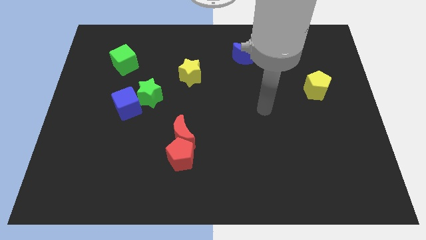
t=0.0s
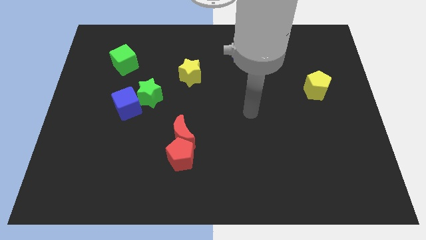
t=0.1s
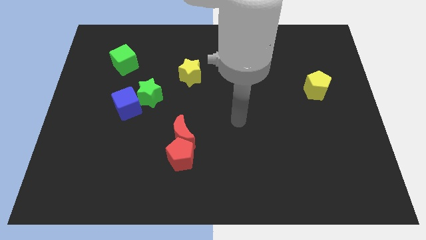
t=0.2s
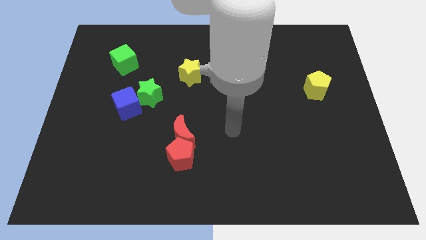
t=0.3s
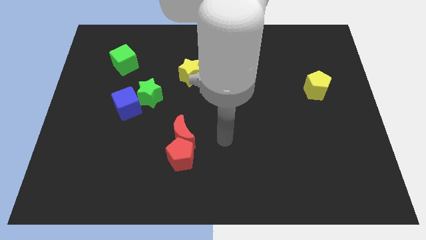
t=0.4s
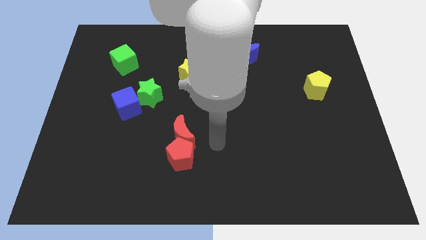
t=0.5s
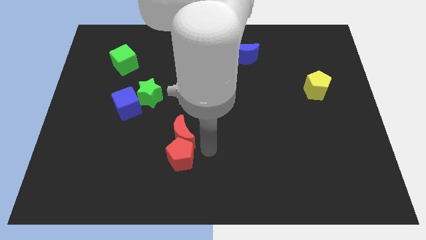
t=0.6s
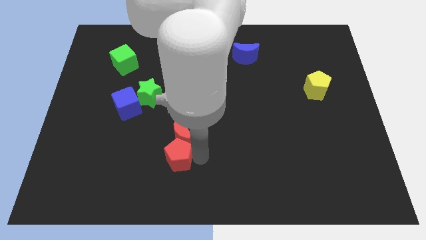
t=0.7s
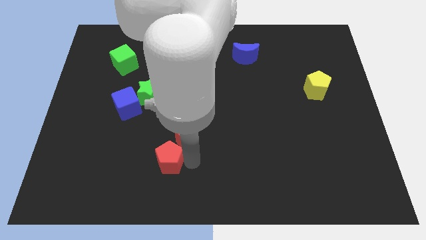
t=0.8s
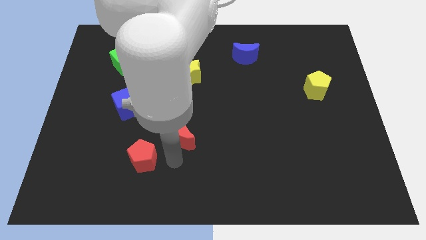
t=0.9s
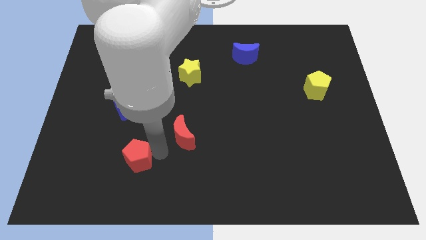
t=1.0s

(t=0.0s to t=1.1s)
separate the red moon from the red pentagon

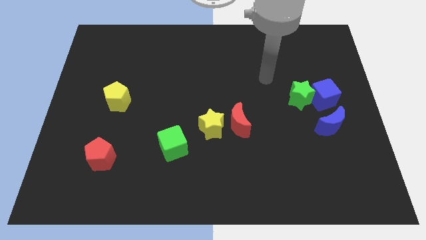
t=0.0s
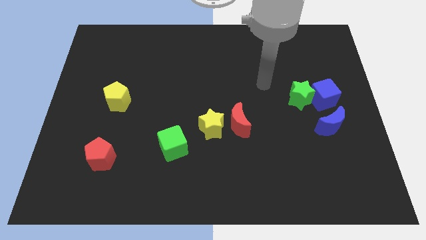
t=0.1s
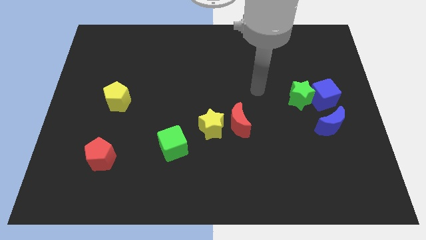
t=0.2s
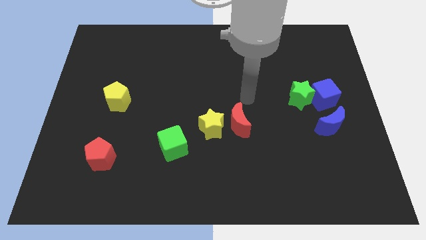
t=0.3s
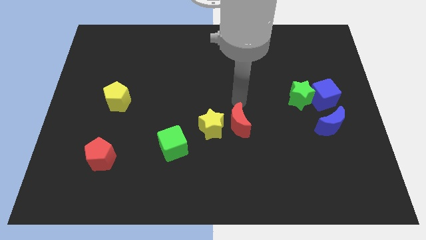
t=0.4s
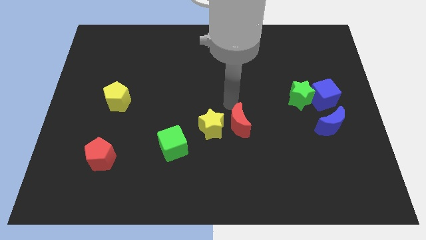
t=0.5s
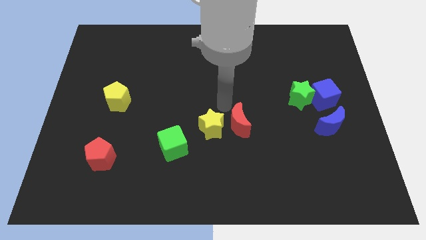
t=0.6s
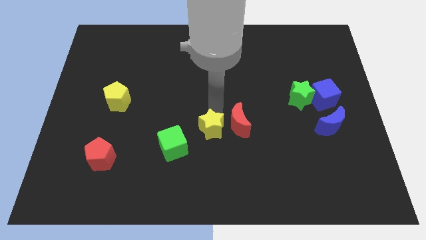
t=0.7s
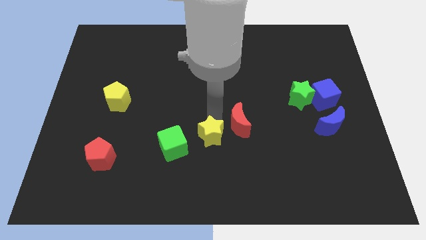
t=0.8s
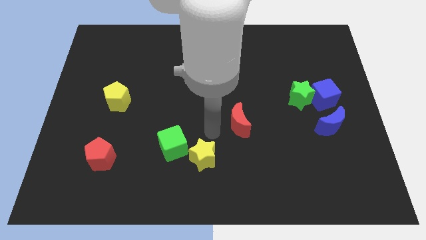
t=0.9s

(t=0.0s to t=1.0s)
pull the red moon apart from the yellow star

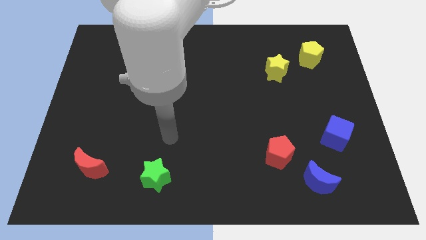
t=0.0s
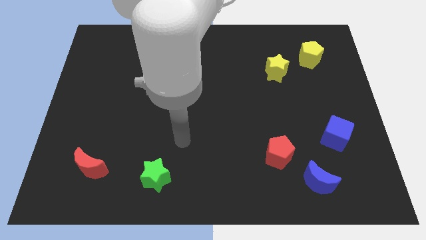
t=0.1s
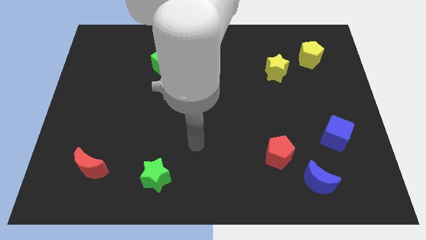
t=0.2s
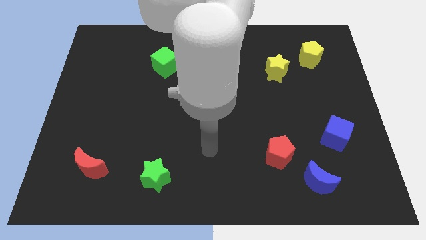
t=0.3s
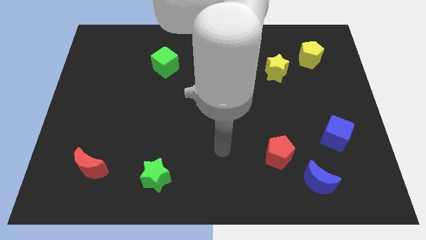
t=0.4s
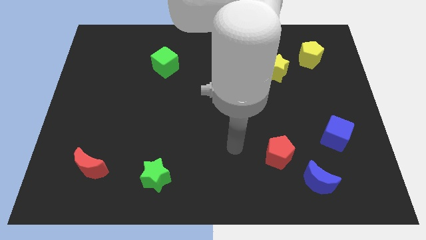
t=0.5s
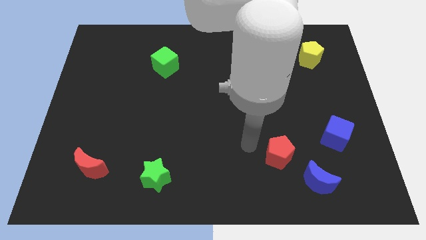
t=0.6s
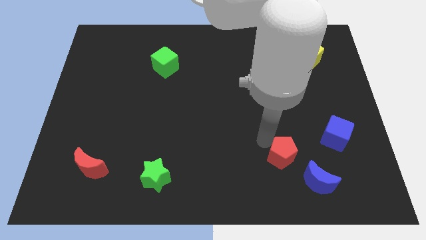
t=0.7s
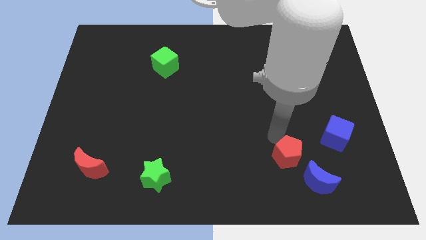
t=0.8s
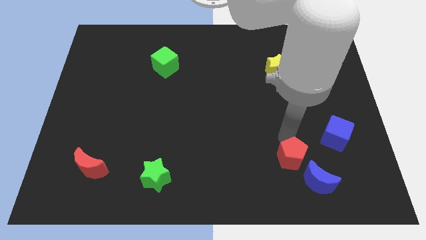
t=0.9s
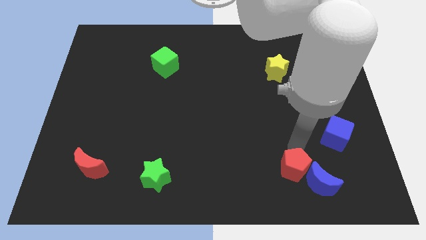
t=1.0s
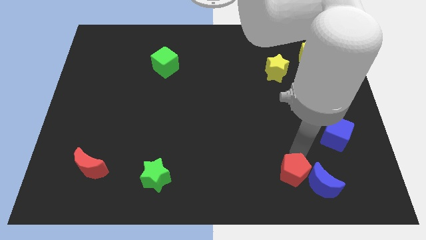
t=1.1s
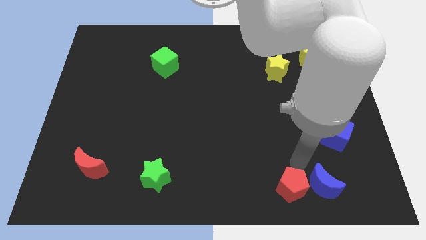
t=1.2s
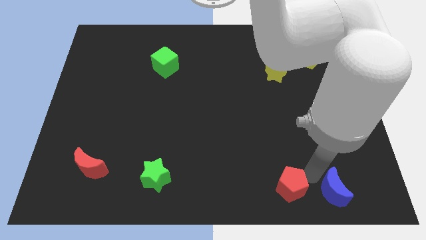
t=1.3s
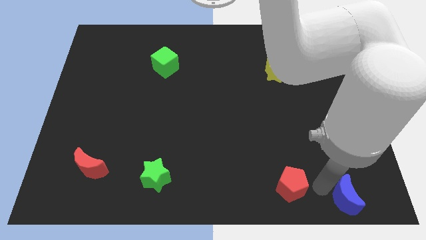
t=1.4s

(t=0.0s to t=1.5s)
move the red pentagon away from the blue moon

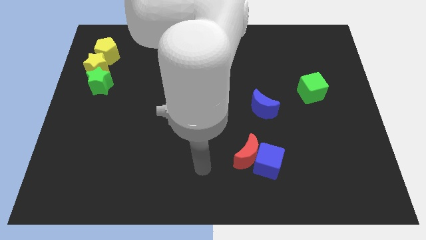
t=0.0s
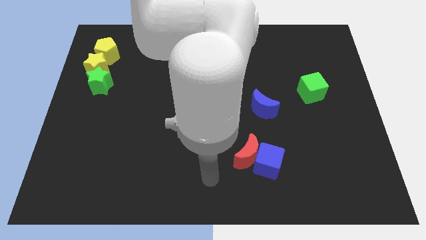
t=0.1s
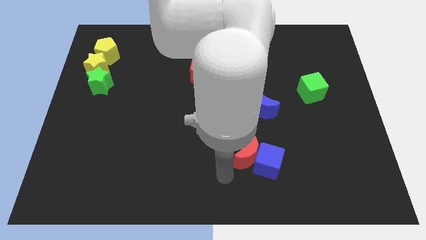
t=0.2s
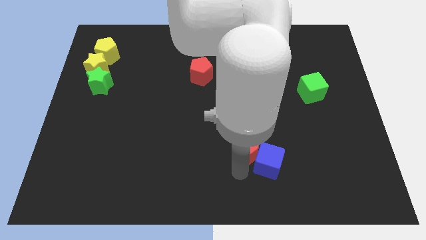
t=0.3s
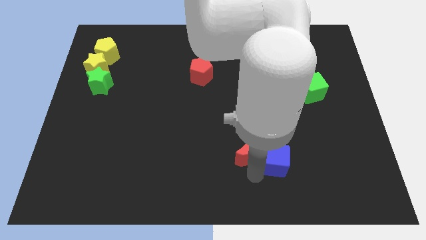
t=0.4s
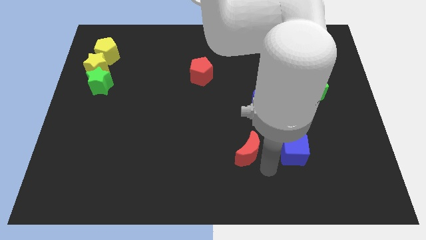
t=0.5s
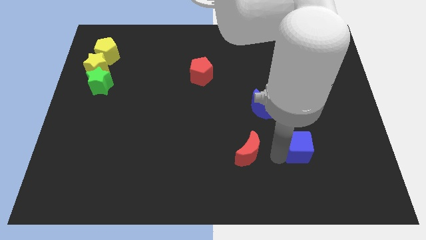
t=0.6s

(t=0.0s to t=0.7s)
pull the red moon apart from the blue cube

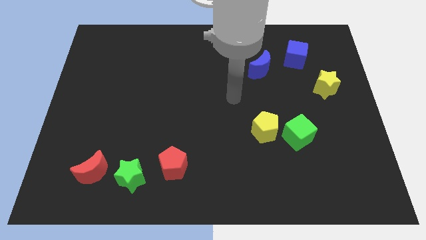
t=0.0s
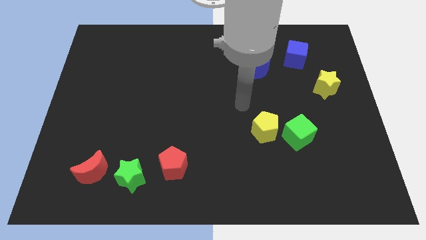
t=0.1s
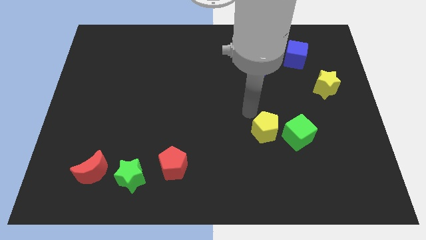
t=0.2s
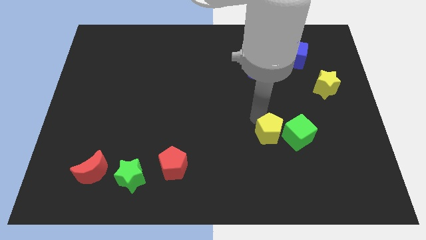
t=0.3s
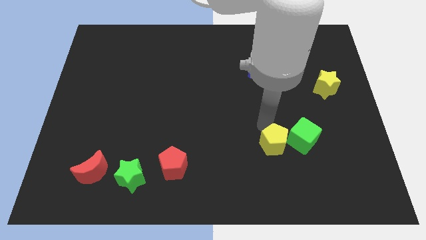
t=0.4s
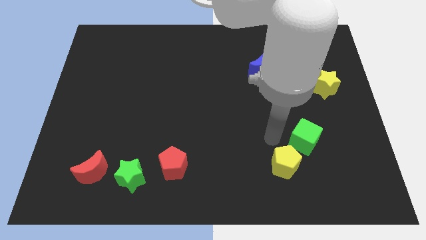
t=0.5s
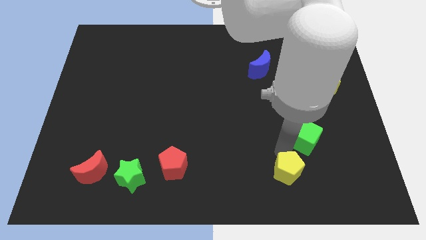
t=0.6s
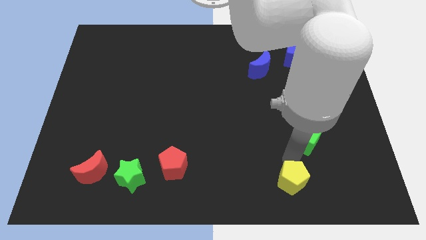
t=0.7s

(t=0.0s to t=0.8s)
pull the green cube apart from the yellow pentagon

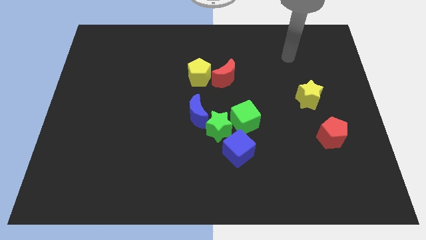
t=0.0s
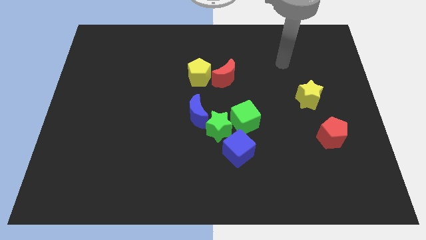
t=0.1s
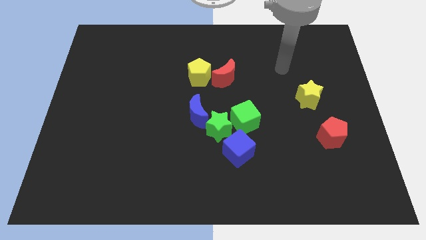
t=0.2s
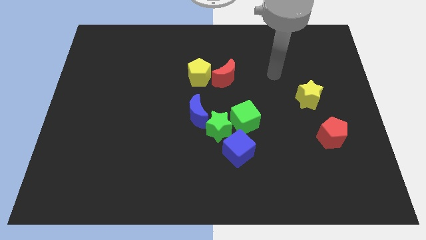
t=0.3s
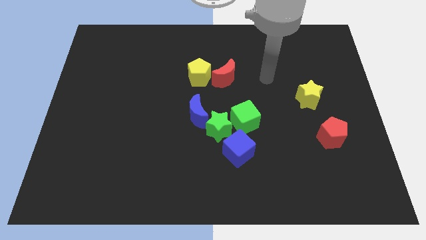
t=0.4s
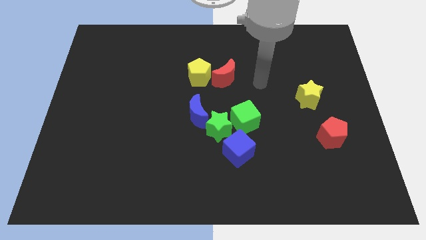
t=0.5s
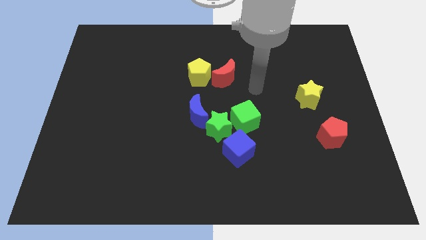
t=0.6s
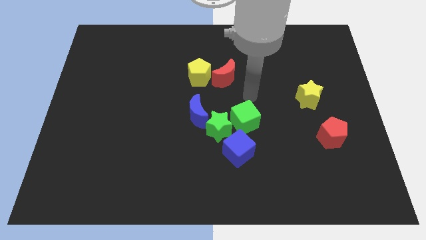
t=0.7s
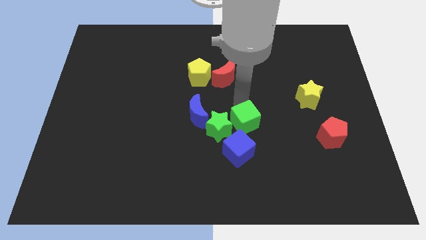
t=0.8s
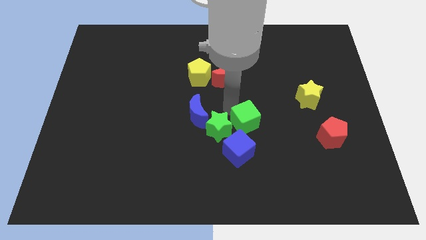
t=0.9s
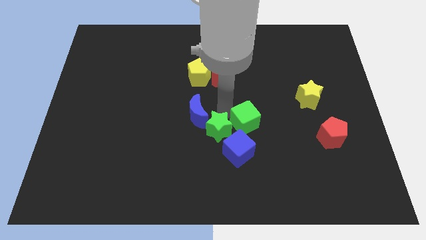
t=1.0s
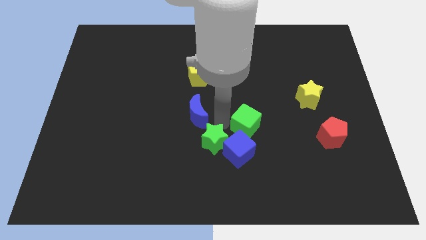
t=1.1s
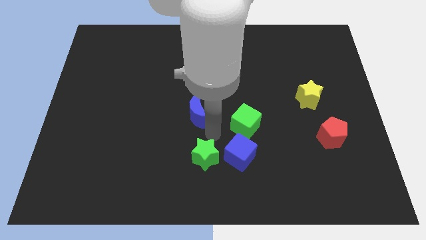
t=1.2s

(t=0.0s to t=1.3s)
move the blue moon away from the green star

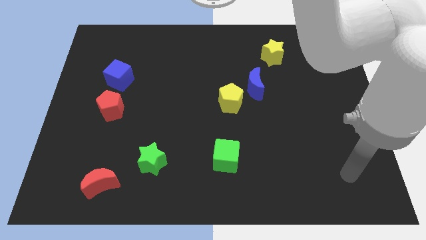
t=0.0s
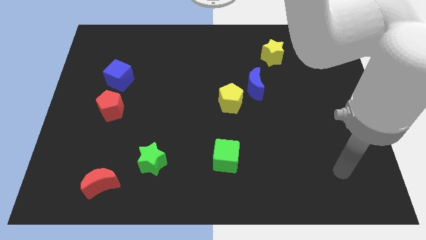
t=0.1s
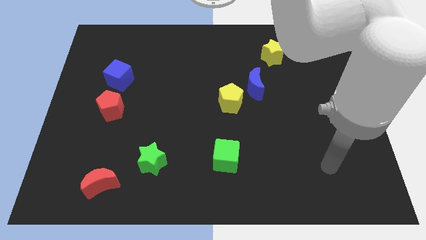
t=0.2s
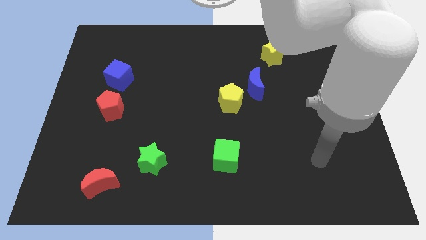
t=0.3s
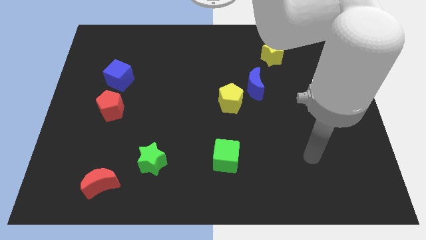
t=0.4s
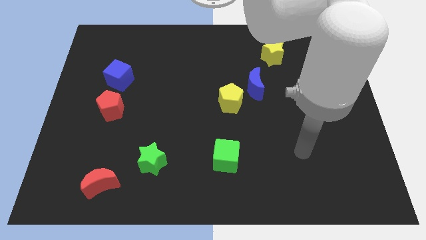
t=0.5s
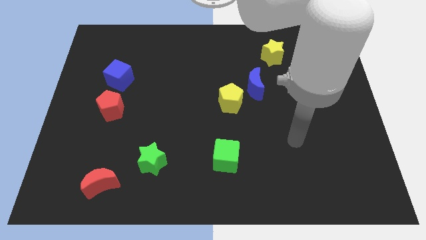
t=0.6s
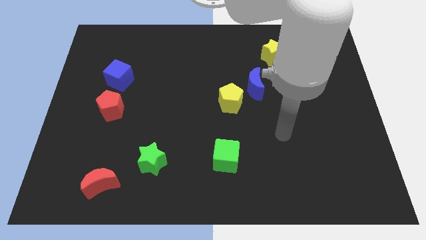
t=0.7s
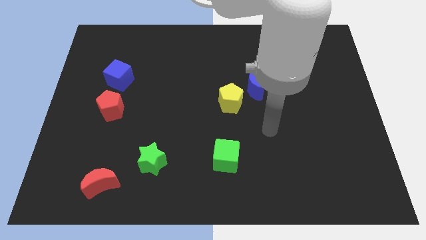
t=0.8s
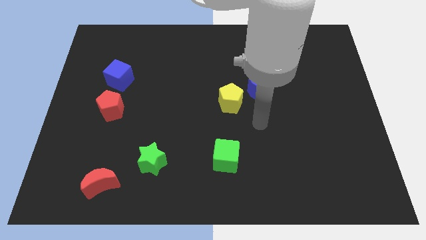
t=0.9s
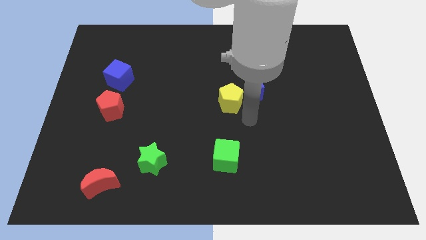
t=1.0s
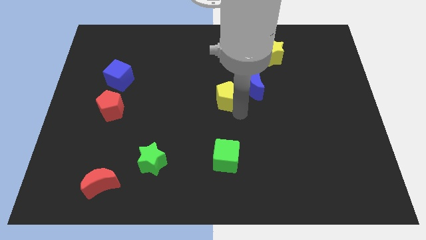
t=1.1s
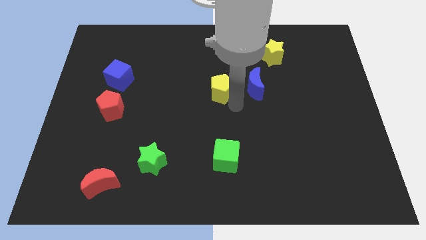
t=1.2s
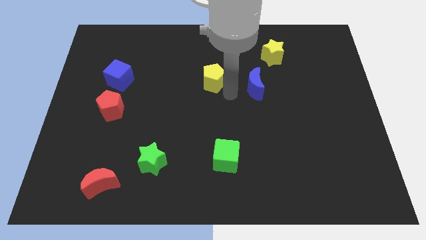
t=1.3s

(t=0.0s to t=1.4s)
pull the blue moon apart from the yellow pentagon

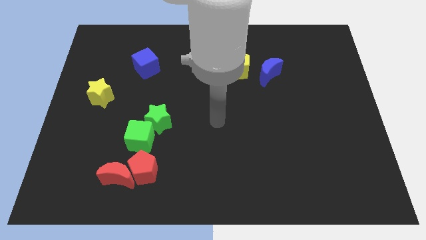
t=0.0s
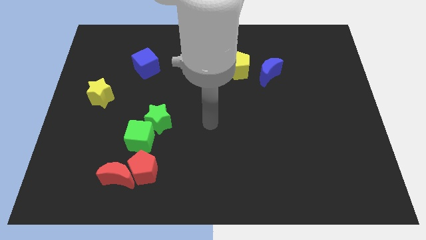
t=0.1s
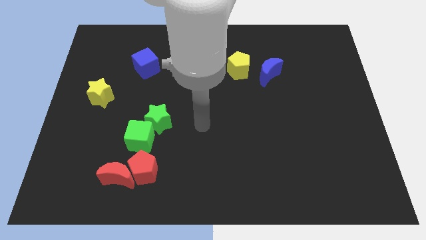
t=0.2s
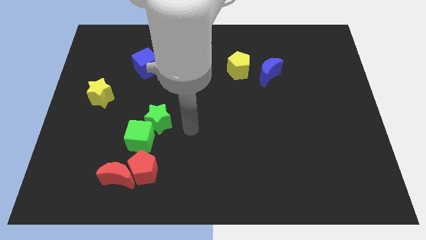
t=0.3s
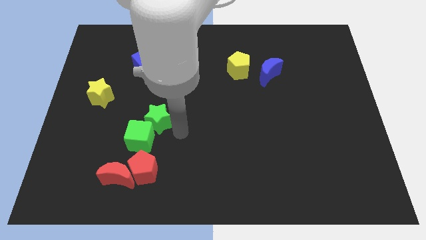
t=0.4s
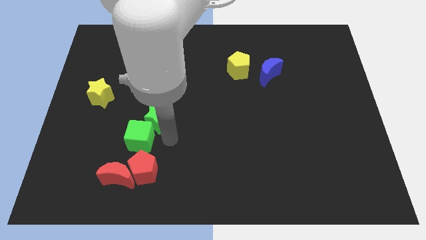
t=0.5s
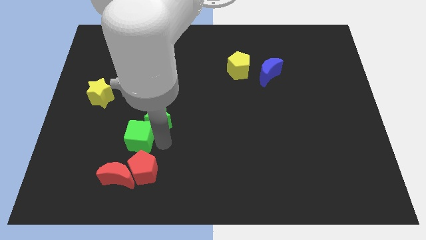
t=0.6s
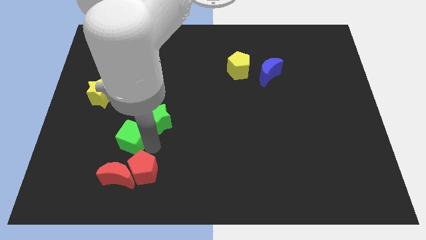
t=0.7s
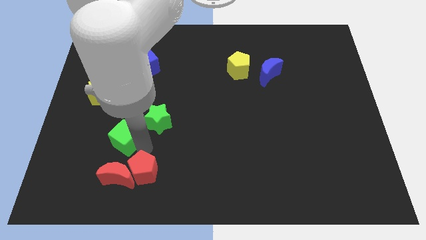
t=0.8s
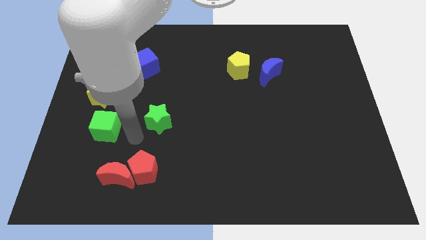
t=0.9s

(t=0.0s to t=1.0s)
move the green star away from the green cube

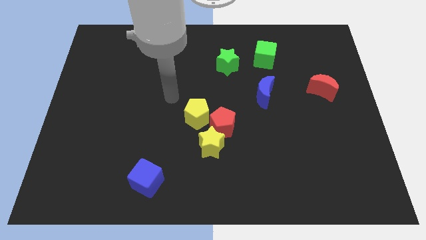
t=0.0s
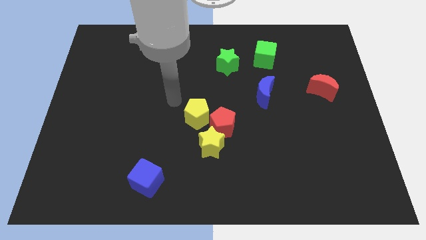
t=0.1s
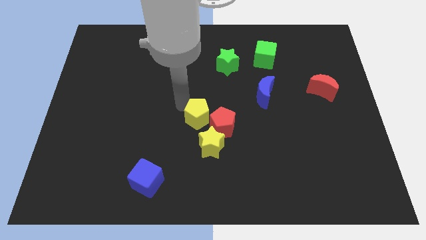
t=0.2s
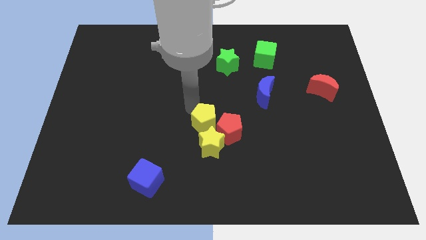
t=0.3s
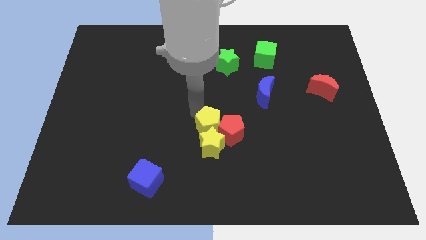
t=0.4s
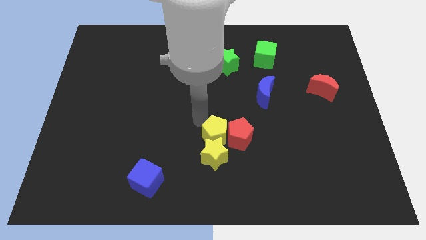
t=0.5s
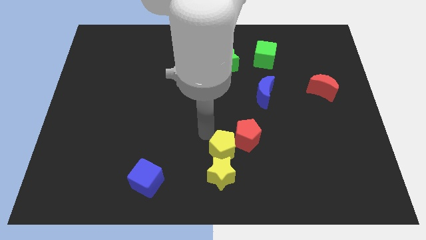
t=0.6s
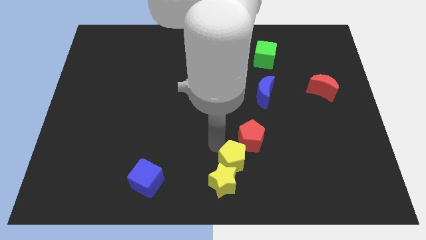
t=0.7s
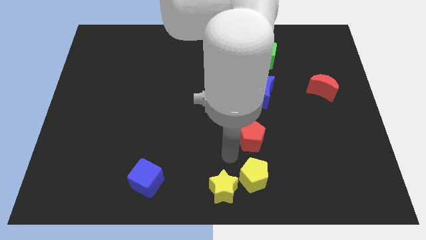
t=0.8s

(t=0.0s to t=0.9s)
pull the red pentagon apart from the yellow star and yellow pentagon
